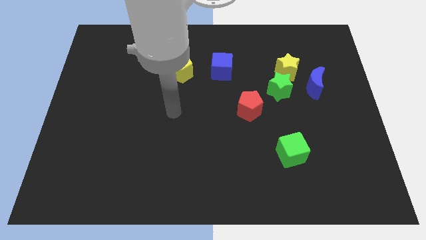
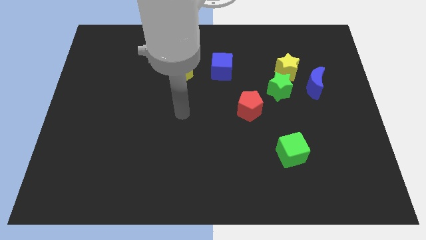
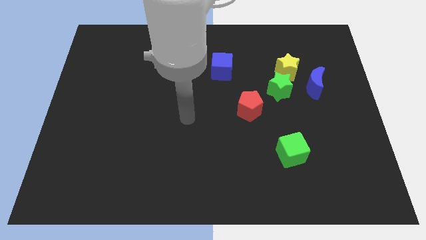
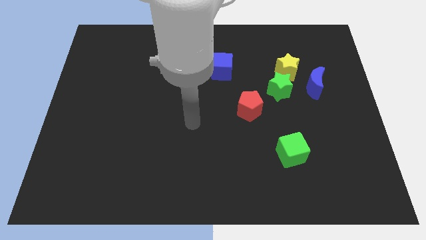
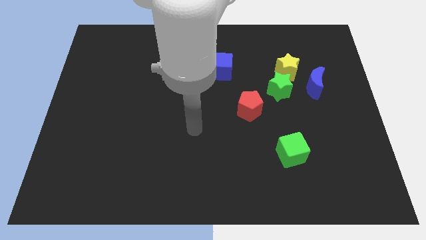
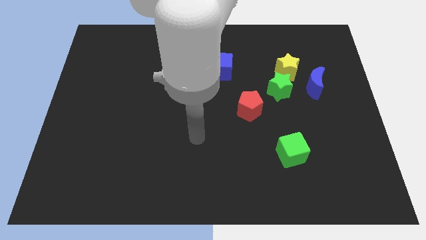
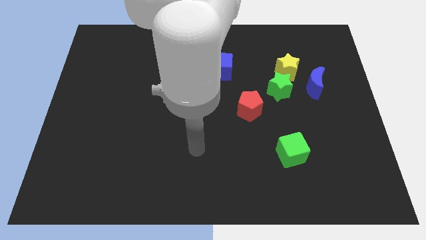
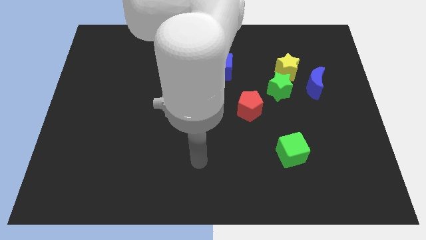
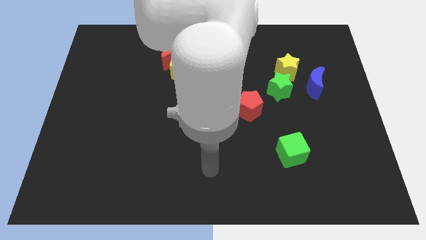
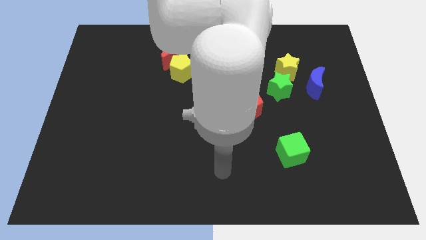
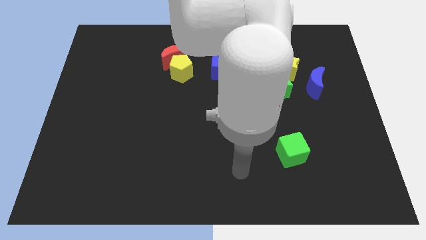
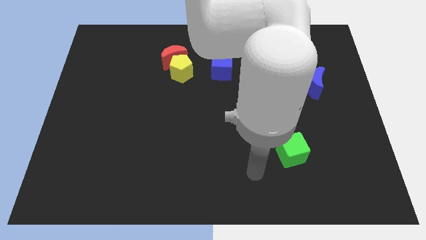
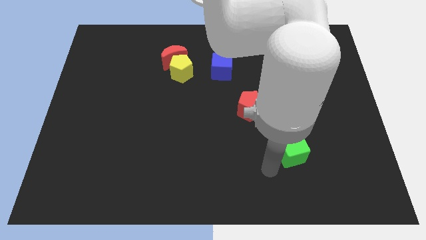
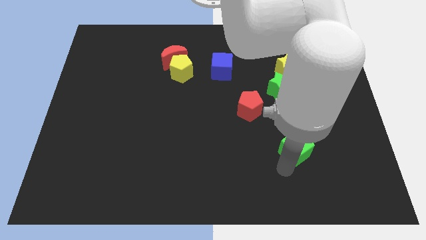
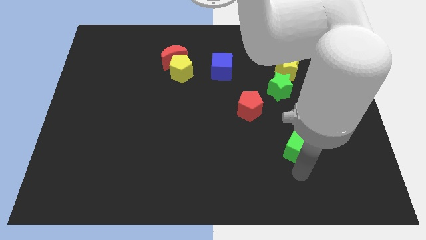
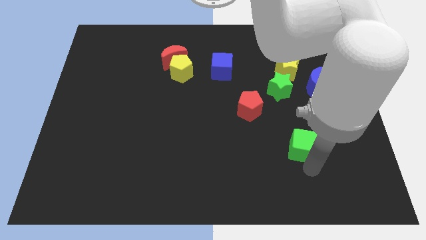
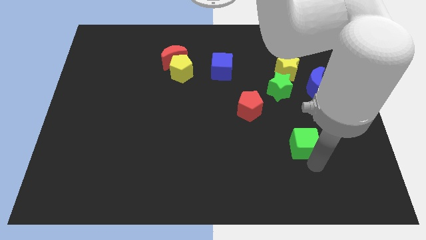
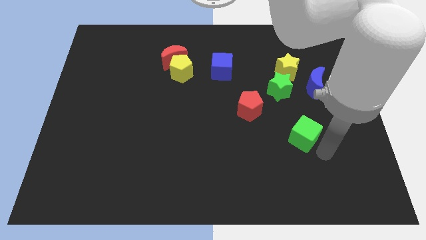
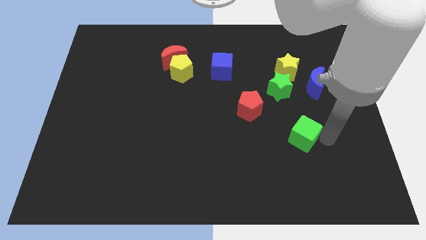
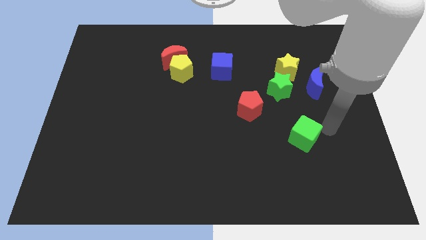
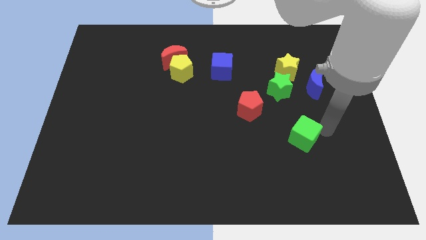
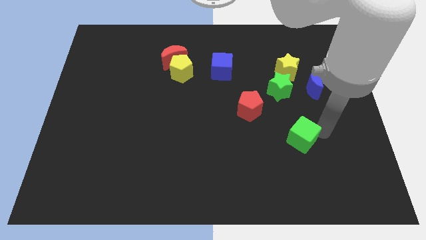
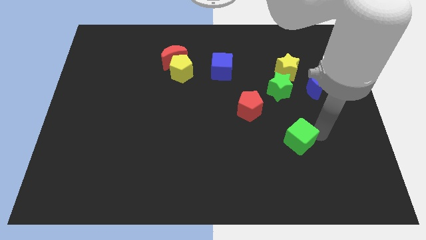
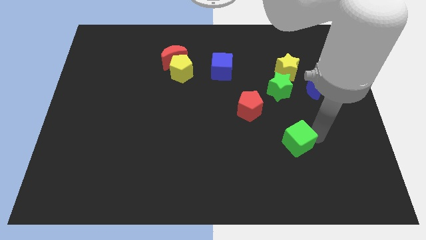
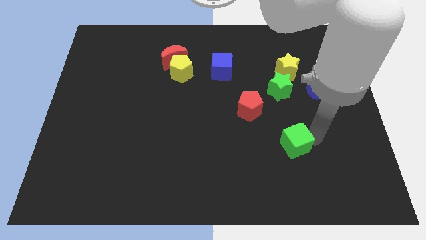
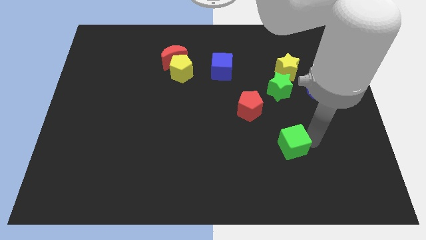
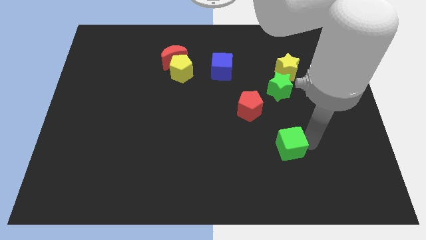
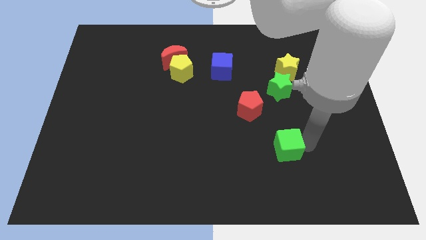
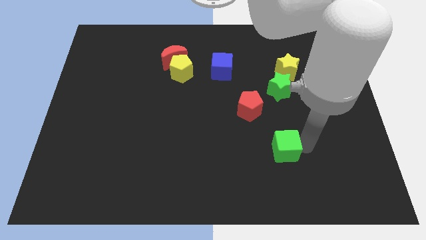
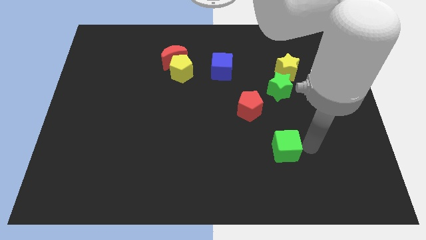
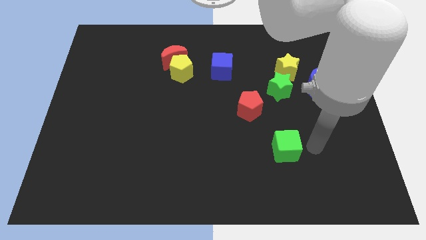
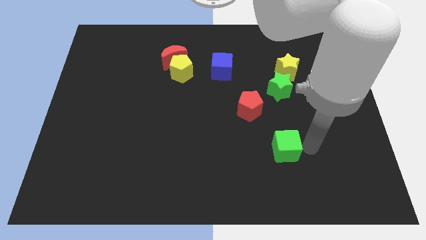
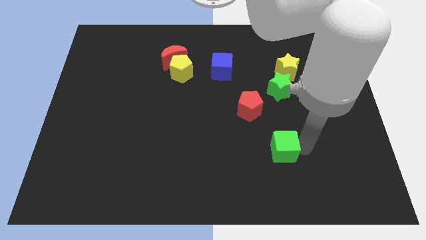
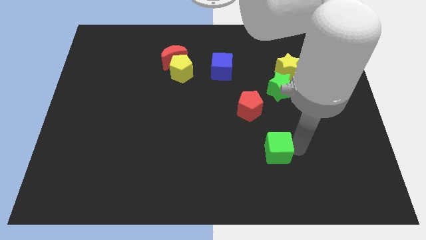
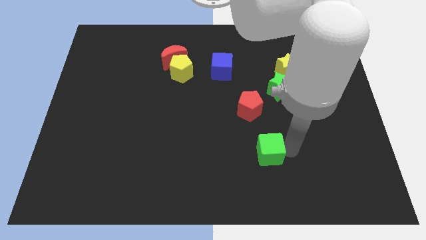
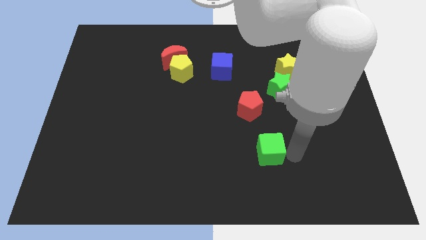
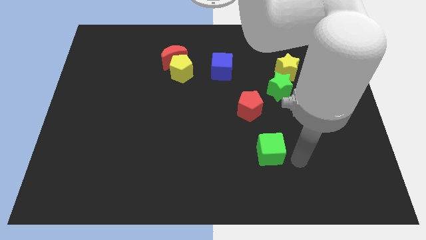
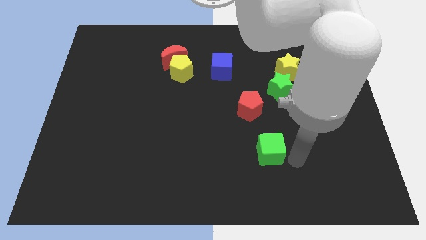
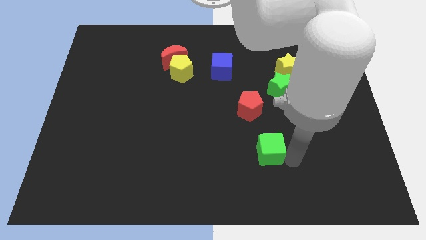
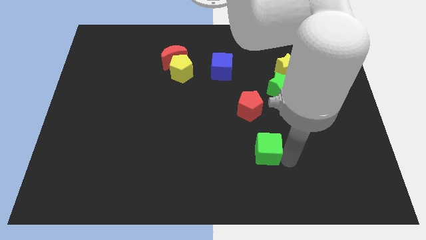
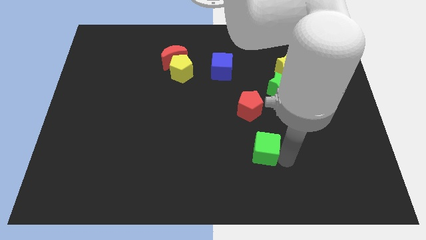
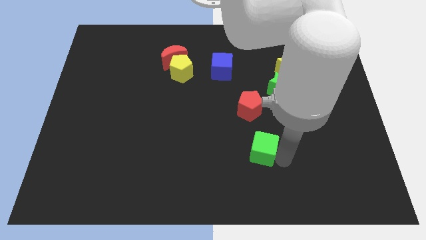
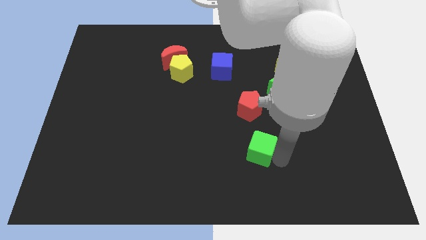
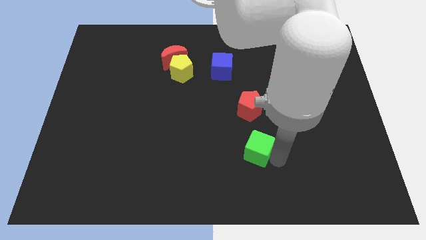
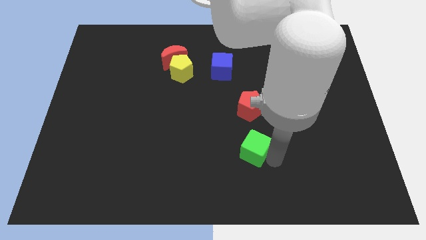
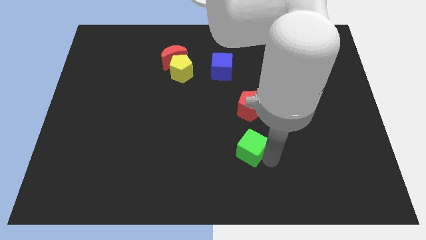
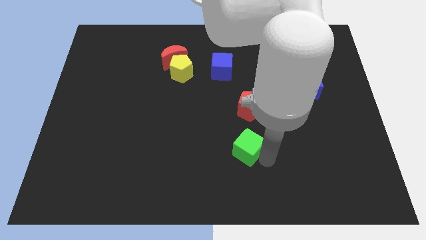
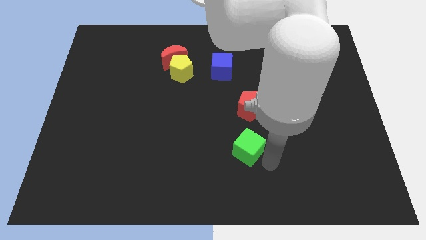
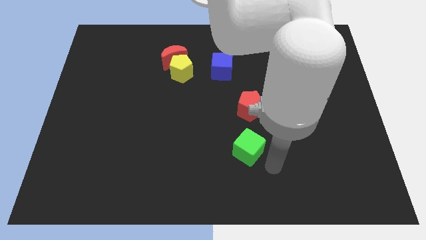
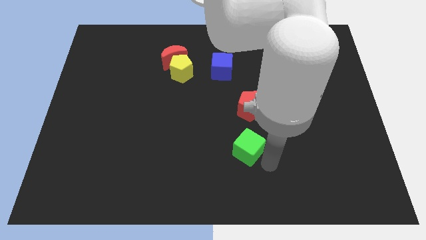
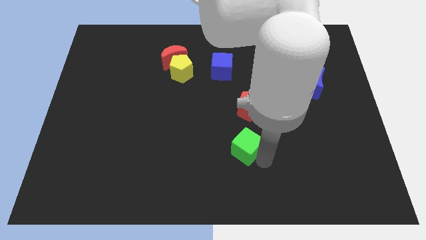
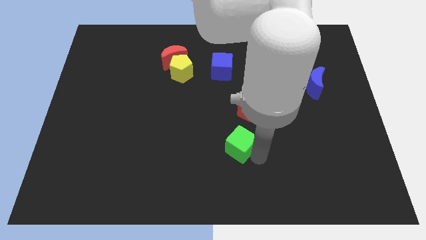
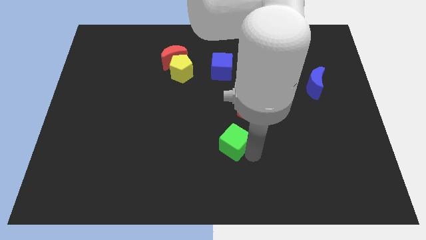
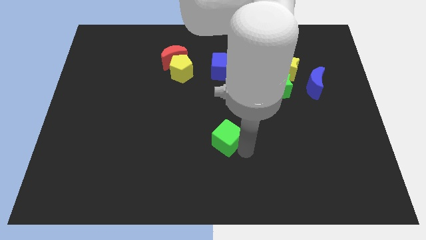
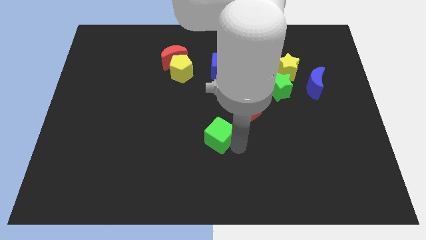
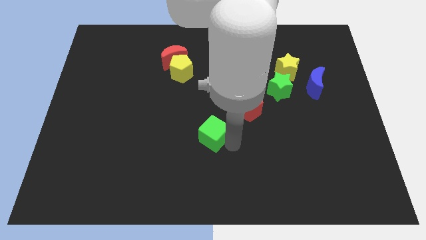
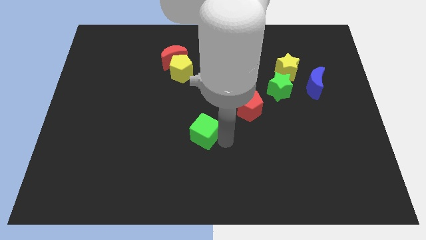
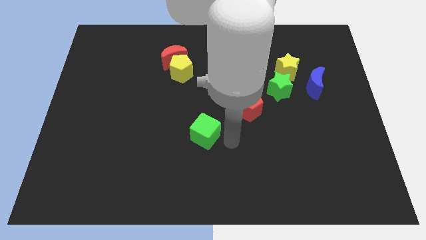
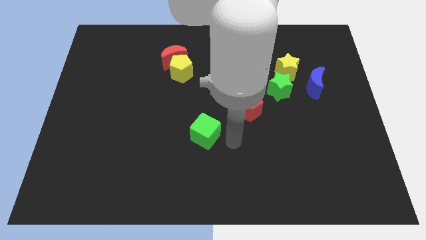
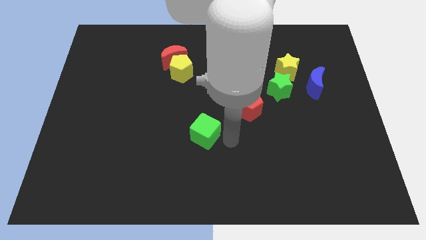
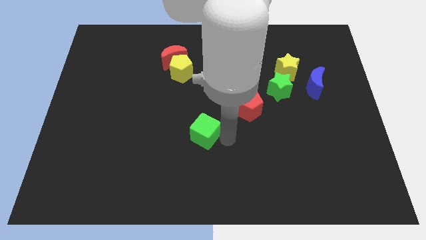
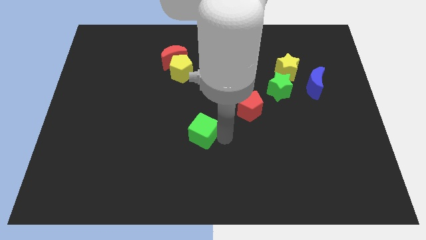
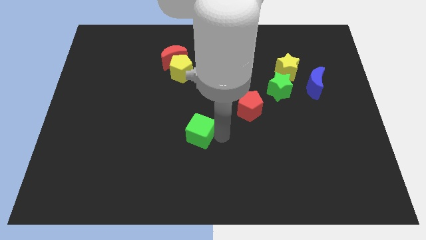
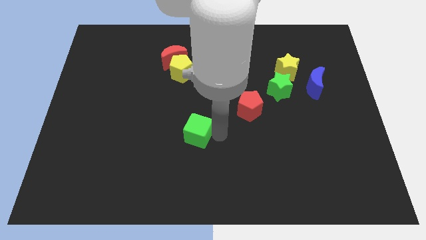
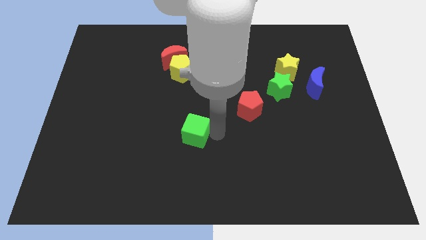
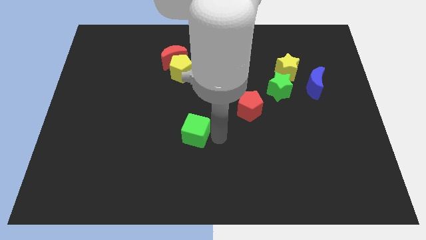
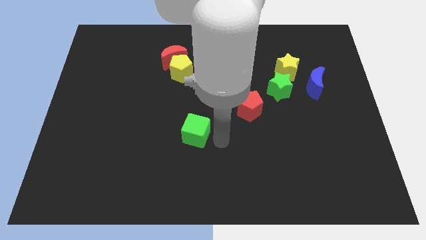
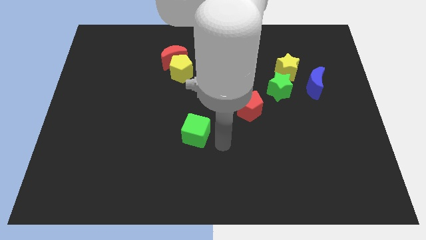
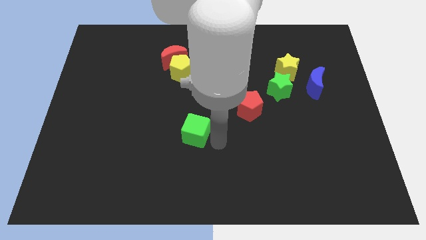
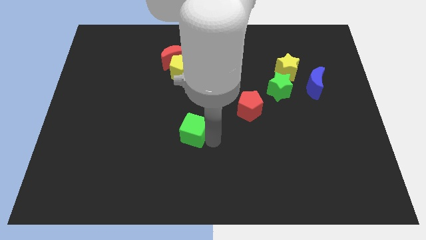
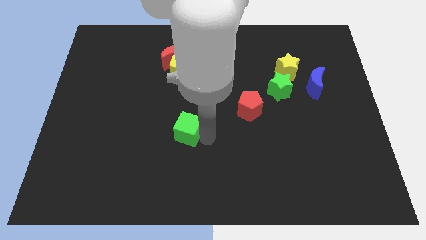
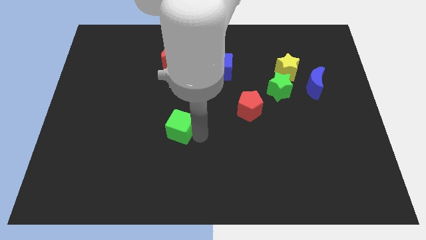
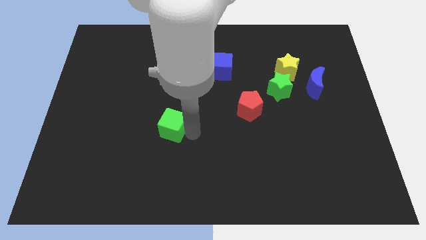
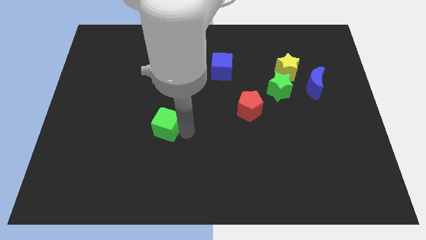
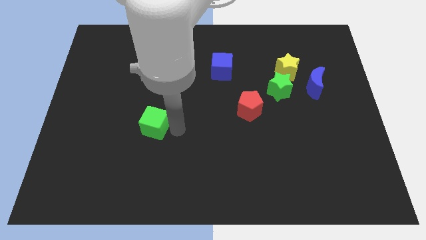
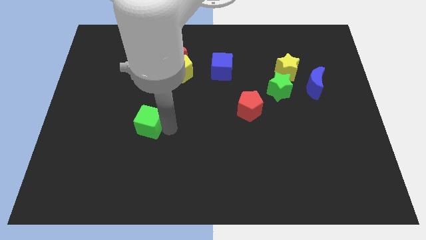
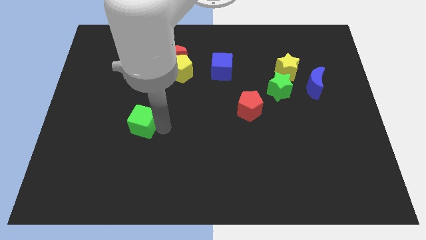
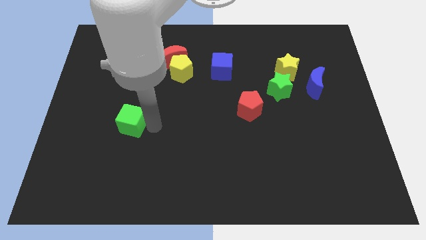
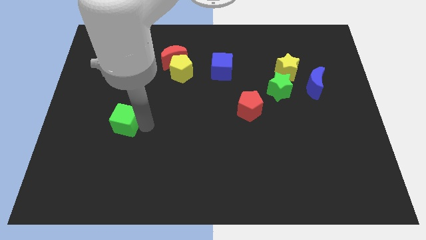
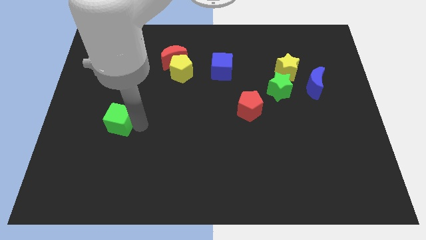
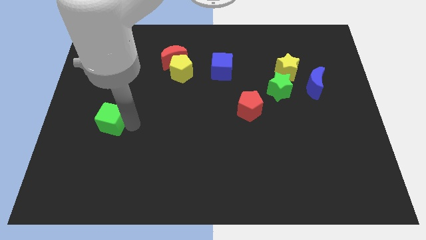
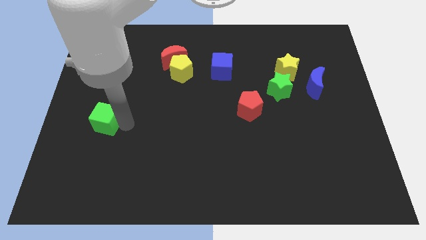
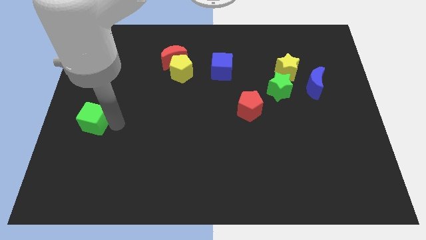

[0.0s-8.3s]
move the green cube to the left side
